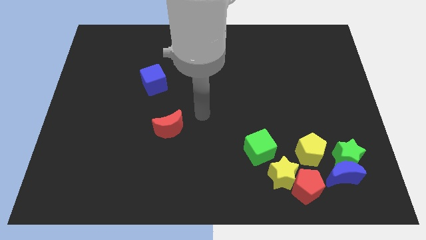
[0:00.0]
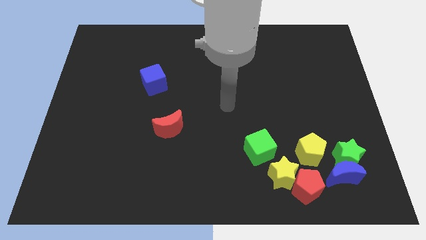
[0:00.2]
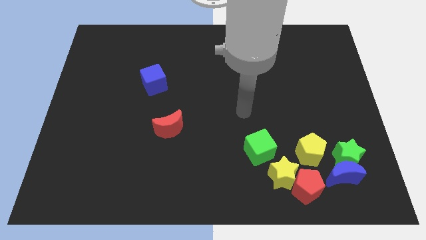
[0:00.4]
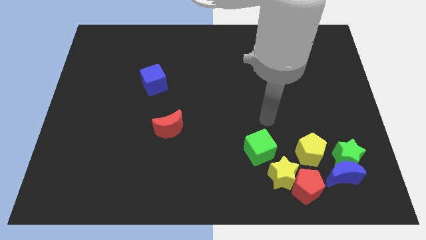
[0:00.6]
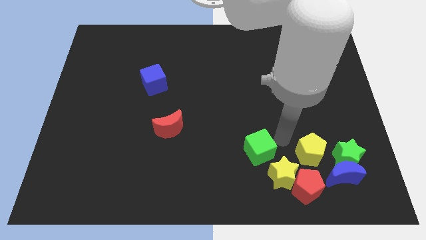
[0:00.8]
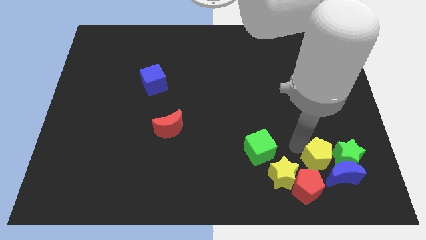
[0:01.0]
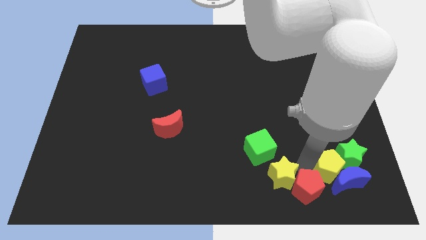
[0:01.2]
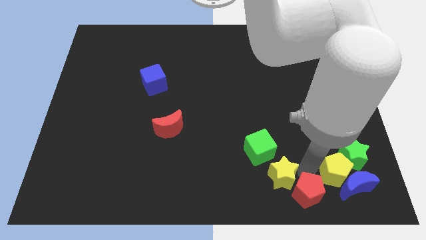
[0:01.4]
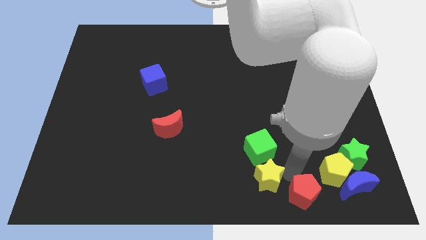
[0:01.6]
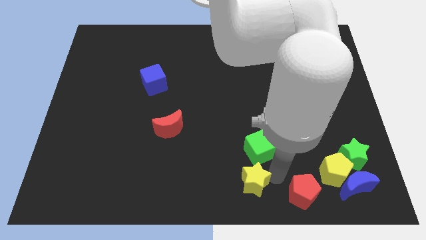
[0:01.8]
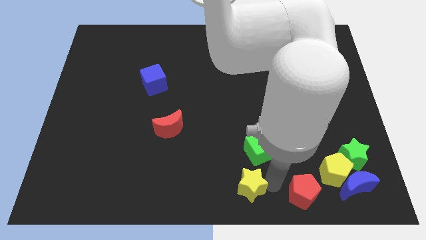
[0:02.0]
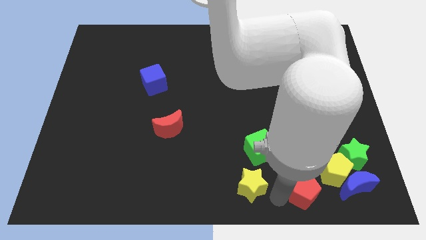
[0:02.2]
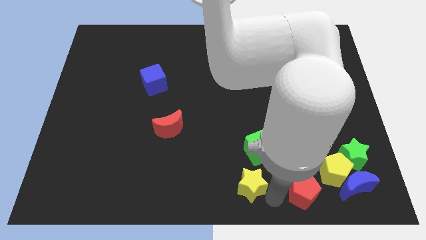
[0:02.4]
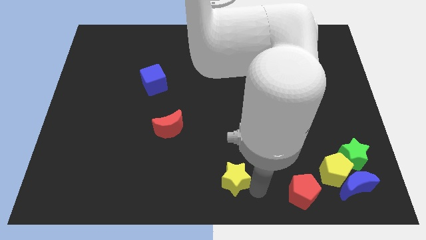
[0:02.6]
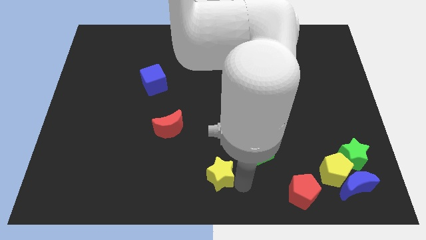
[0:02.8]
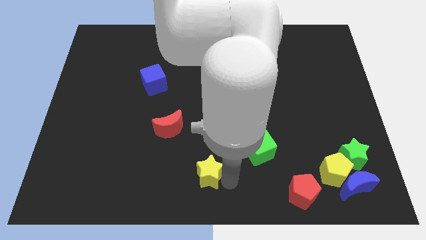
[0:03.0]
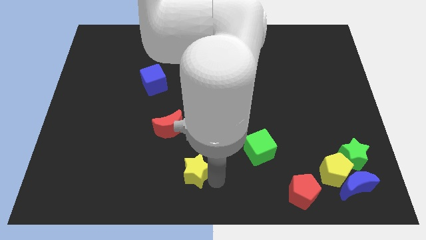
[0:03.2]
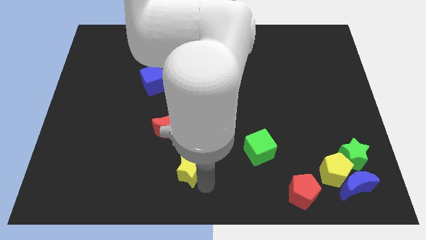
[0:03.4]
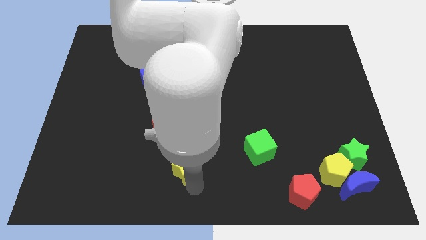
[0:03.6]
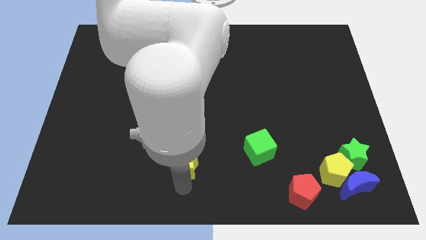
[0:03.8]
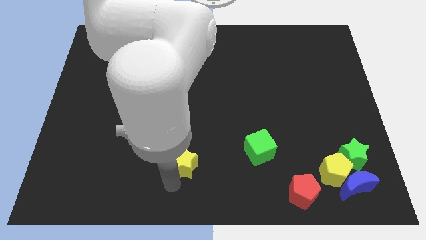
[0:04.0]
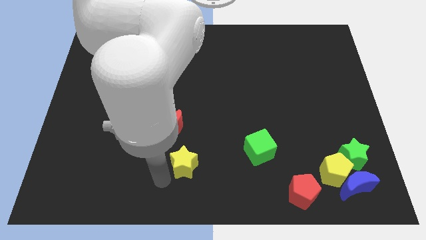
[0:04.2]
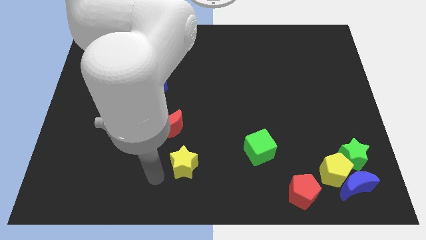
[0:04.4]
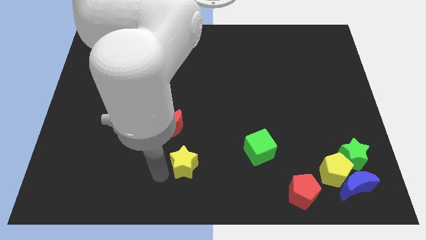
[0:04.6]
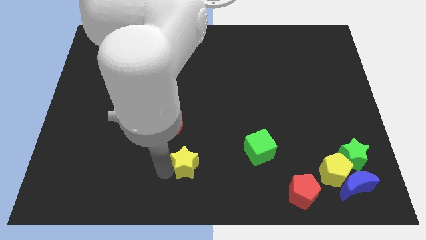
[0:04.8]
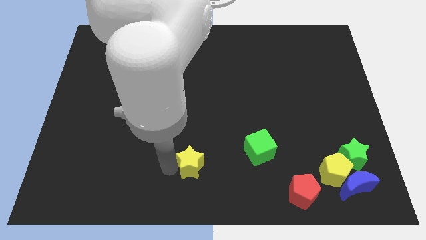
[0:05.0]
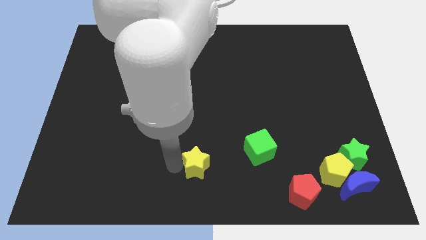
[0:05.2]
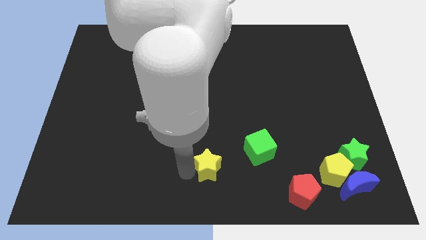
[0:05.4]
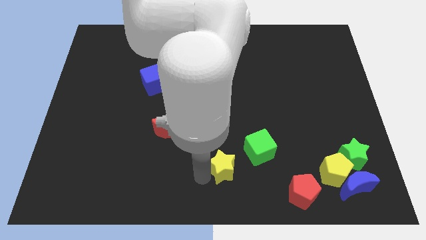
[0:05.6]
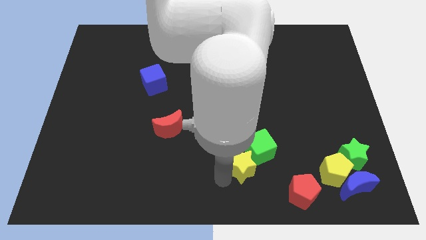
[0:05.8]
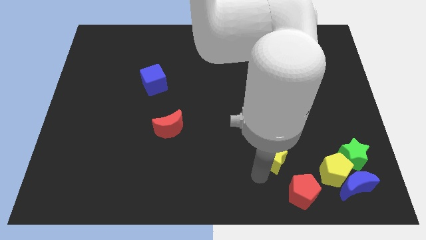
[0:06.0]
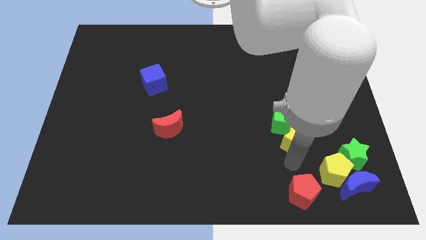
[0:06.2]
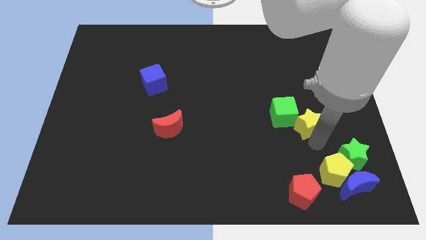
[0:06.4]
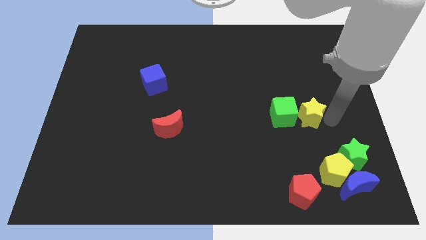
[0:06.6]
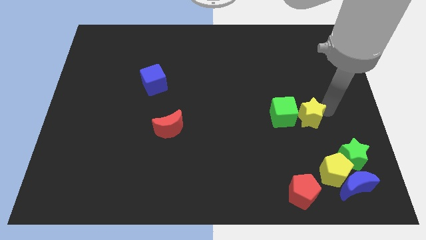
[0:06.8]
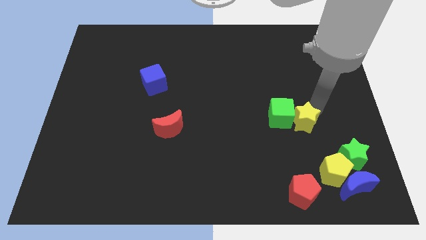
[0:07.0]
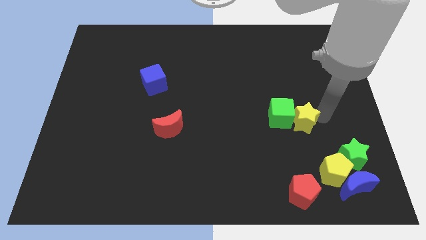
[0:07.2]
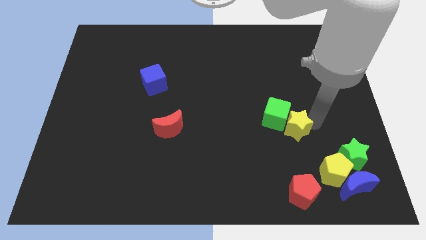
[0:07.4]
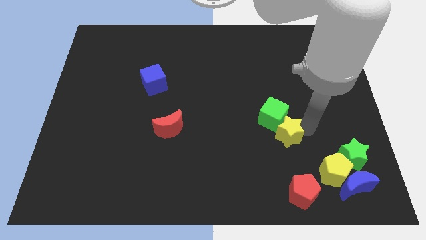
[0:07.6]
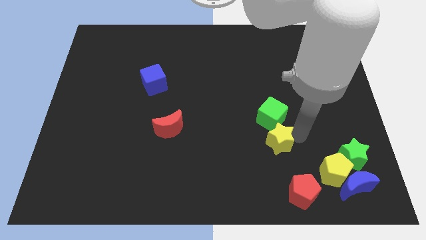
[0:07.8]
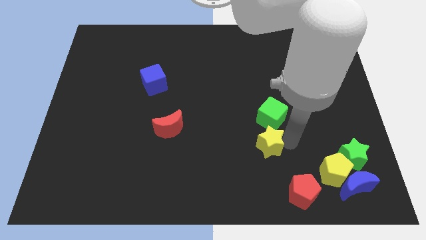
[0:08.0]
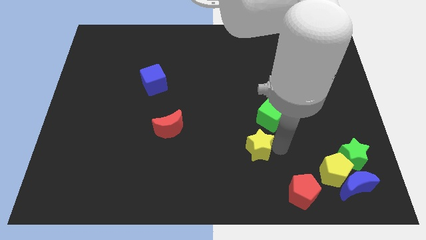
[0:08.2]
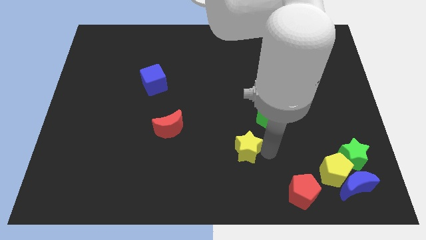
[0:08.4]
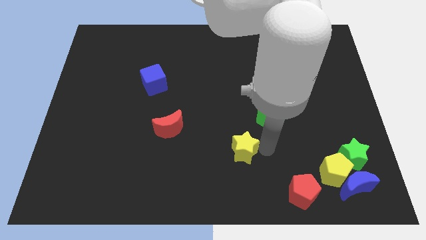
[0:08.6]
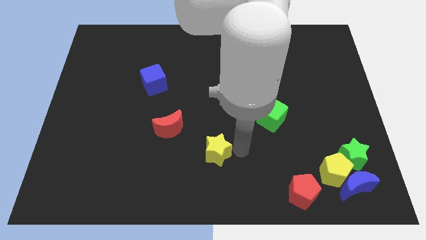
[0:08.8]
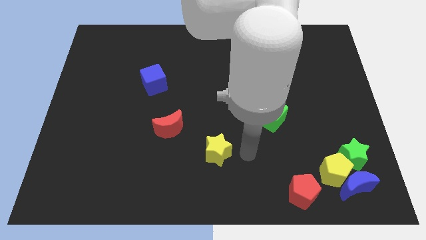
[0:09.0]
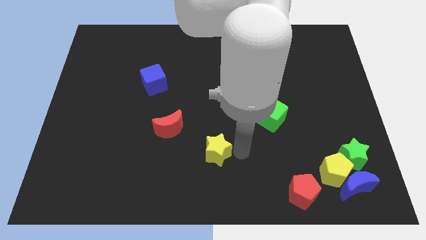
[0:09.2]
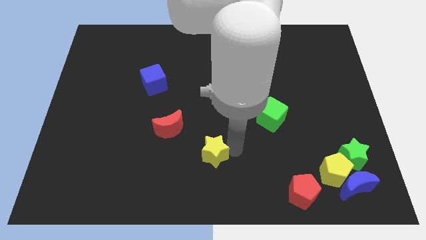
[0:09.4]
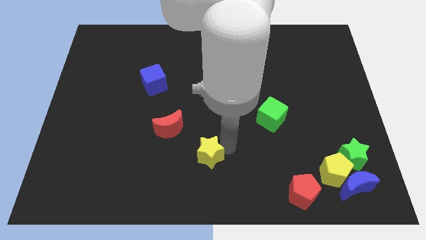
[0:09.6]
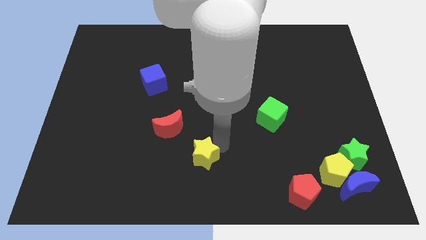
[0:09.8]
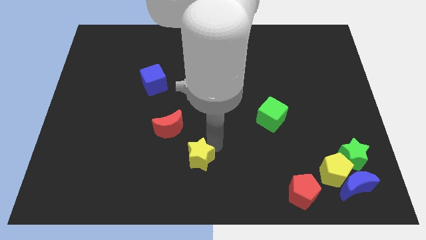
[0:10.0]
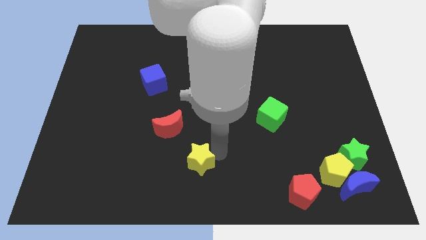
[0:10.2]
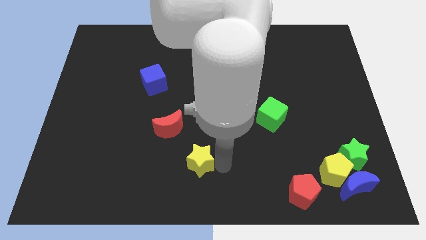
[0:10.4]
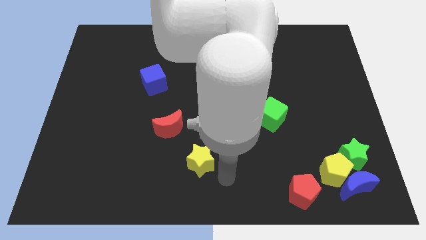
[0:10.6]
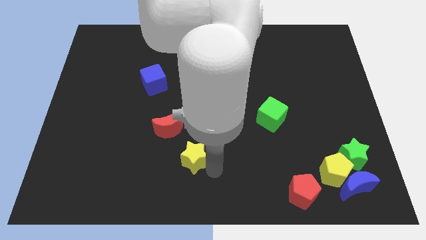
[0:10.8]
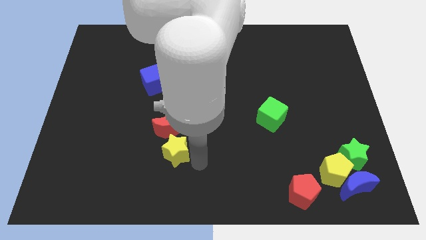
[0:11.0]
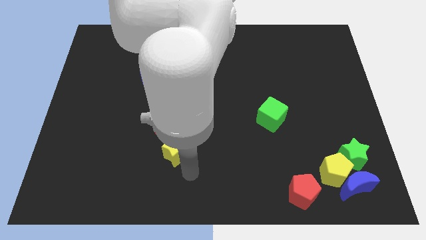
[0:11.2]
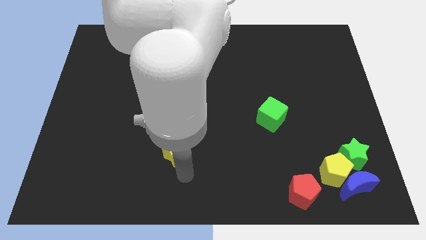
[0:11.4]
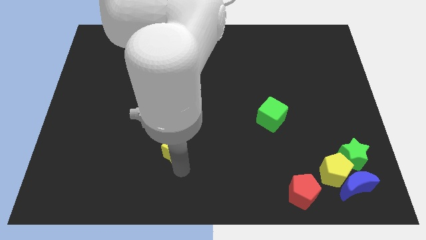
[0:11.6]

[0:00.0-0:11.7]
move the yellow star towards the red moon

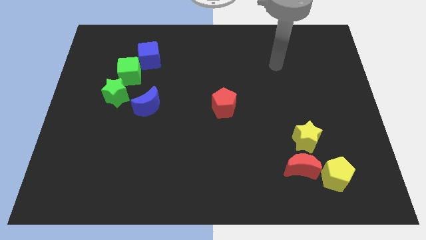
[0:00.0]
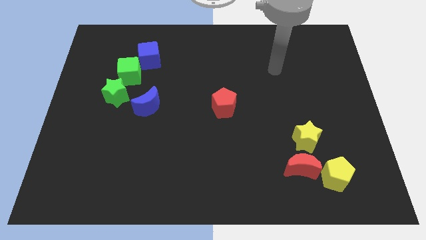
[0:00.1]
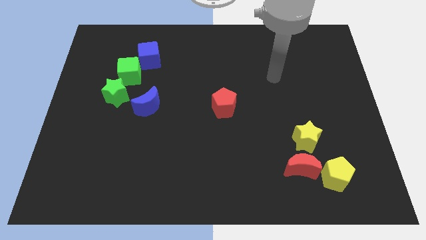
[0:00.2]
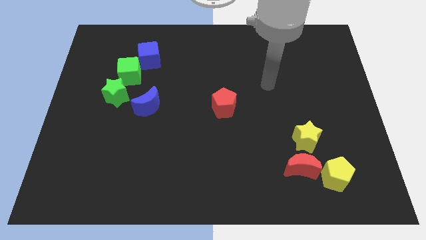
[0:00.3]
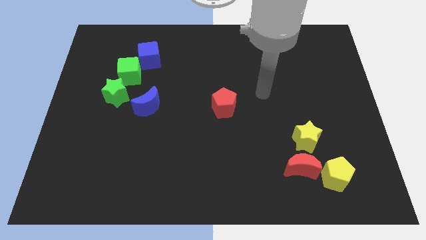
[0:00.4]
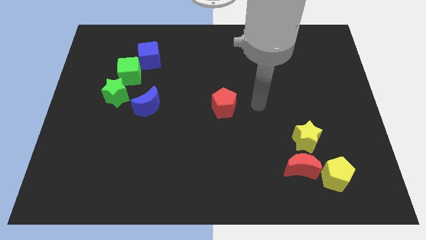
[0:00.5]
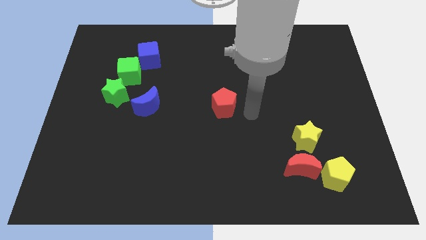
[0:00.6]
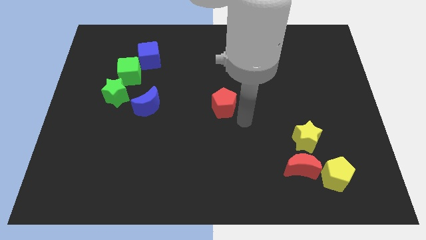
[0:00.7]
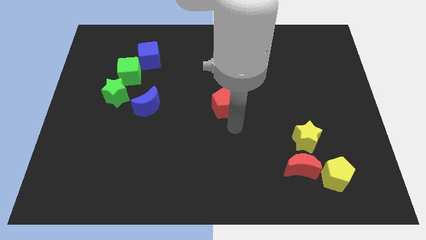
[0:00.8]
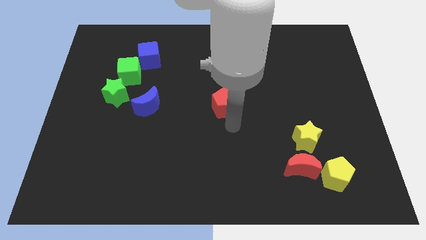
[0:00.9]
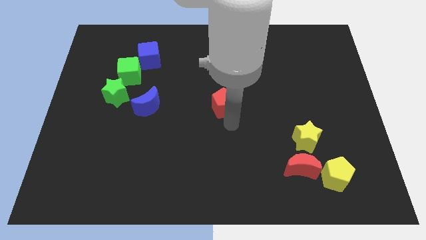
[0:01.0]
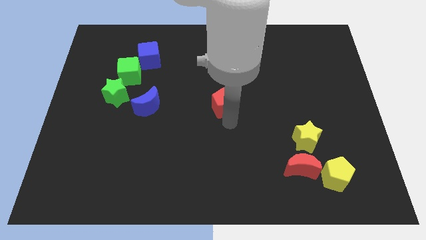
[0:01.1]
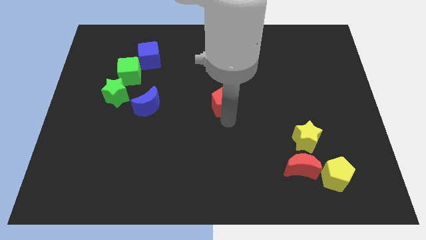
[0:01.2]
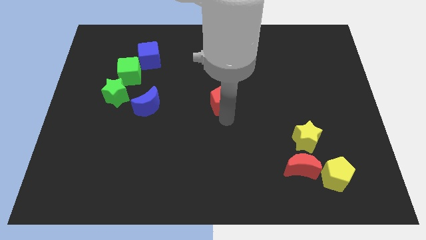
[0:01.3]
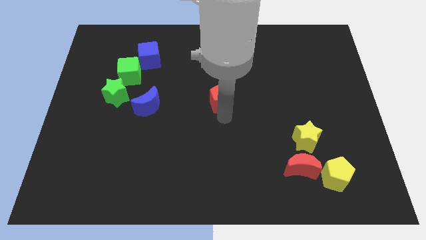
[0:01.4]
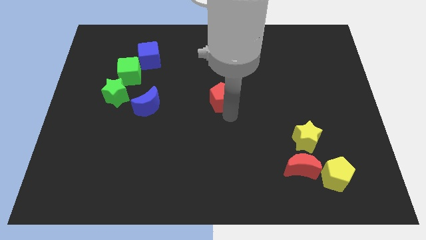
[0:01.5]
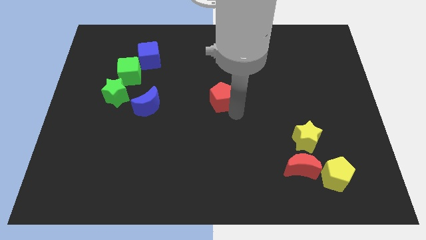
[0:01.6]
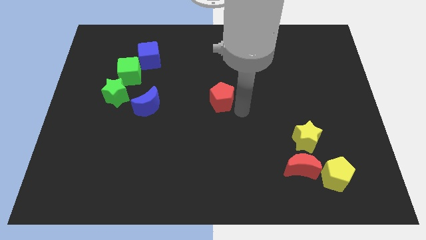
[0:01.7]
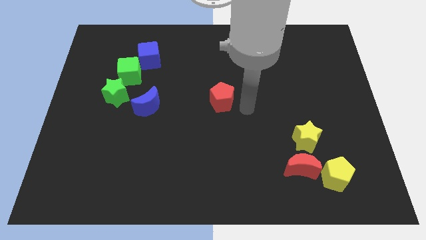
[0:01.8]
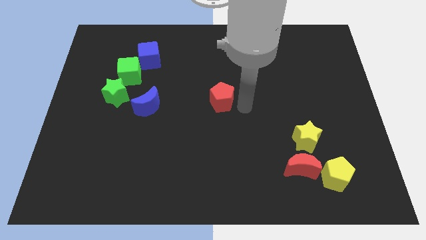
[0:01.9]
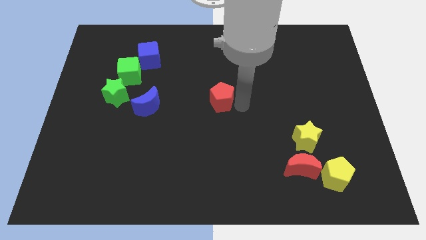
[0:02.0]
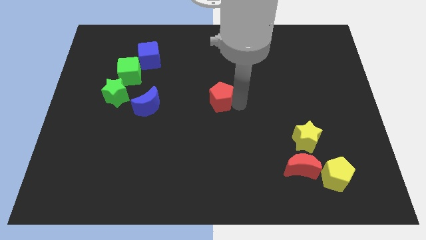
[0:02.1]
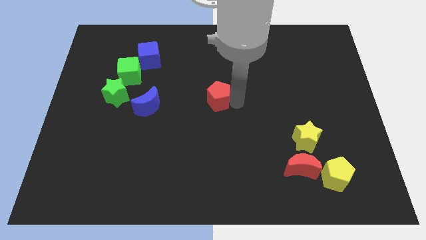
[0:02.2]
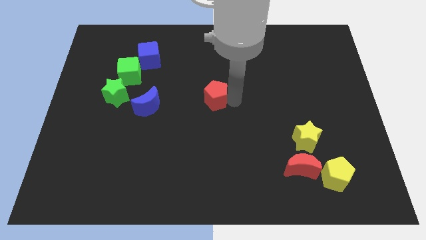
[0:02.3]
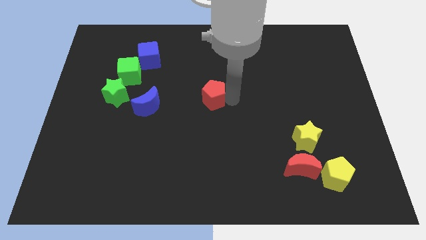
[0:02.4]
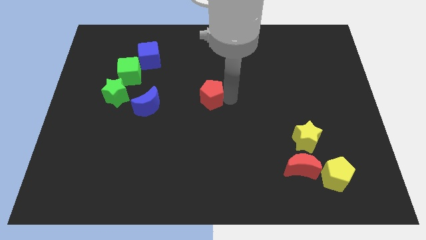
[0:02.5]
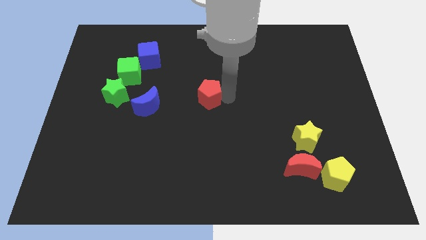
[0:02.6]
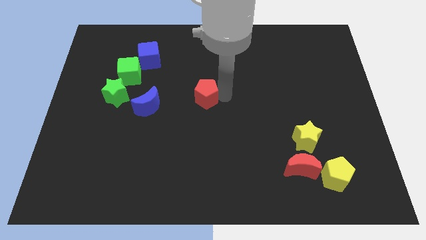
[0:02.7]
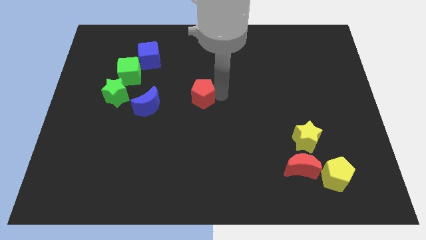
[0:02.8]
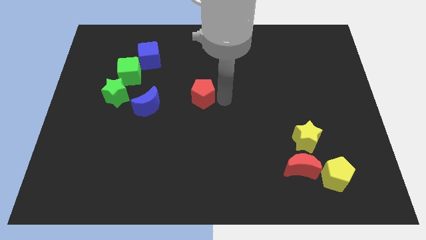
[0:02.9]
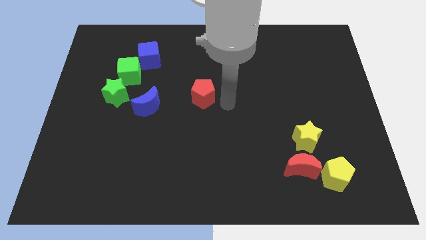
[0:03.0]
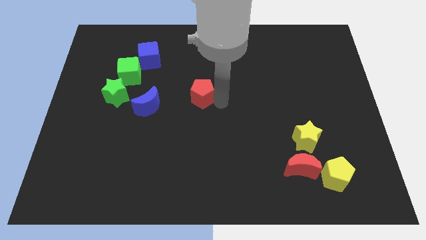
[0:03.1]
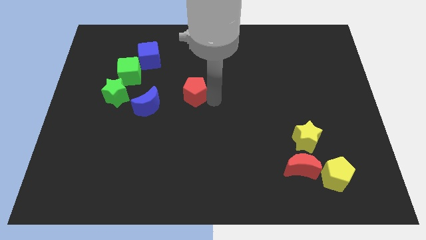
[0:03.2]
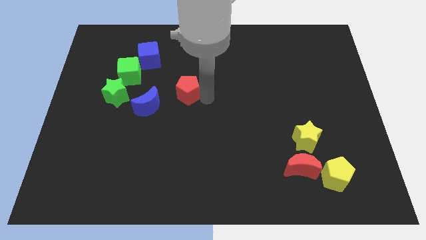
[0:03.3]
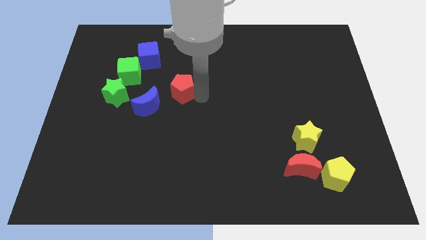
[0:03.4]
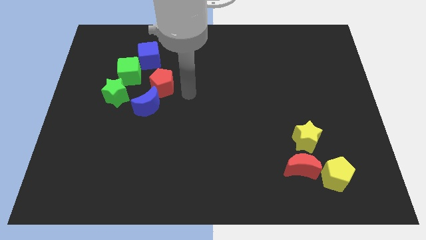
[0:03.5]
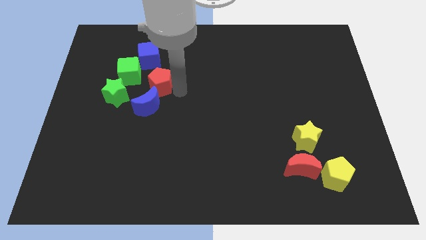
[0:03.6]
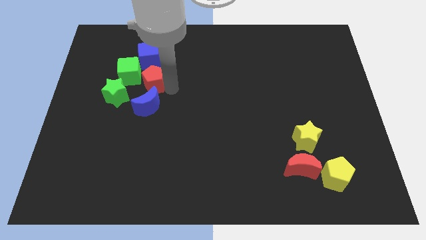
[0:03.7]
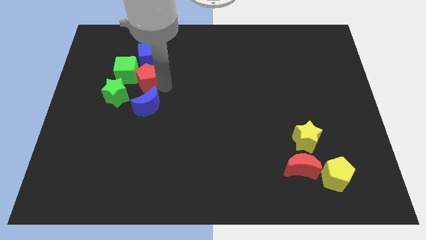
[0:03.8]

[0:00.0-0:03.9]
put the red pentagon towards the green cube
